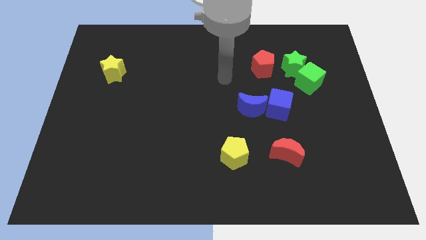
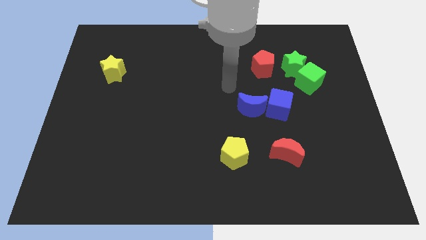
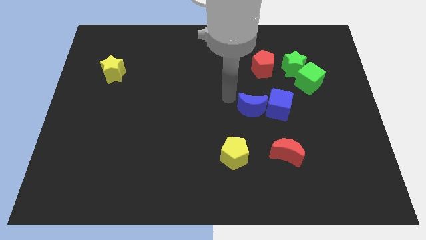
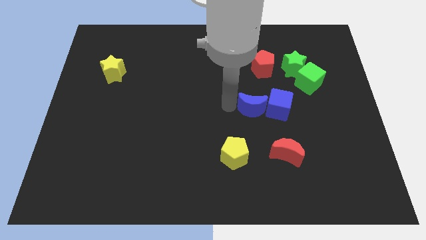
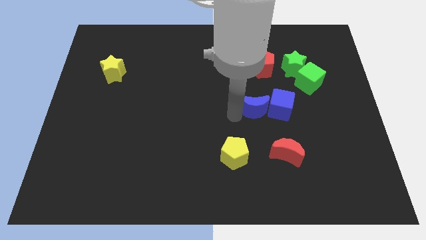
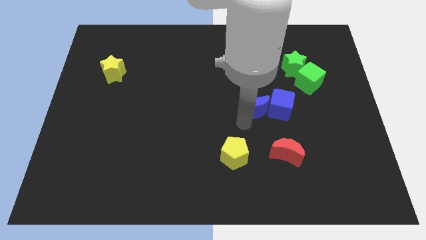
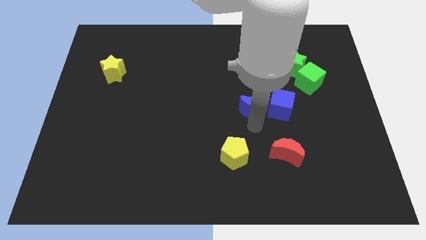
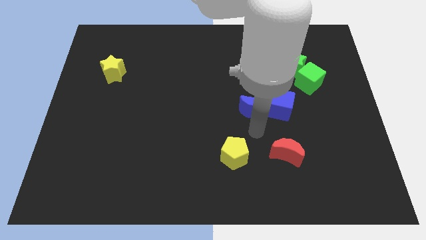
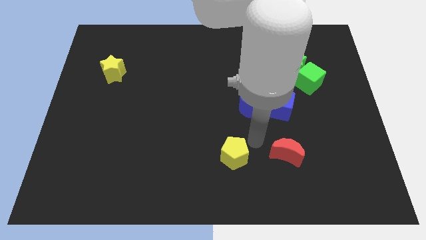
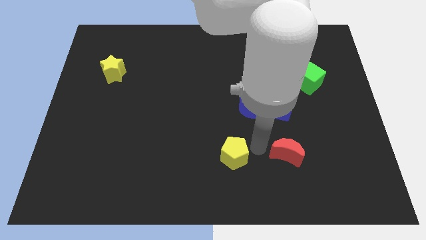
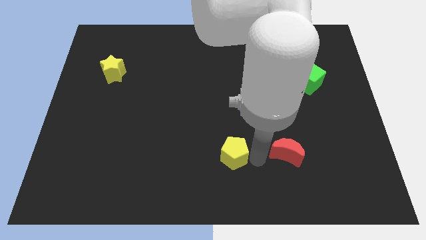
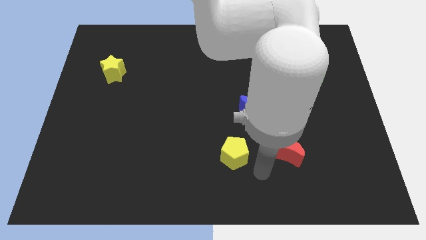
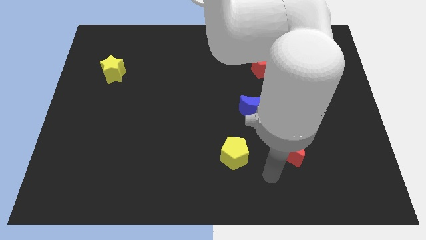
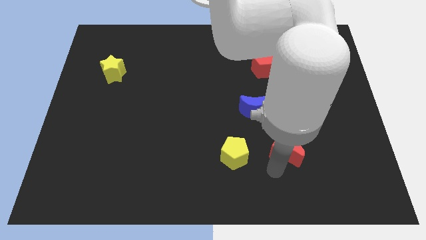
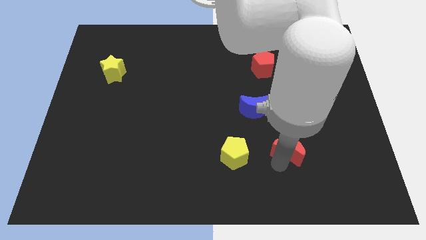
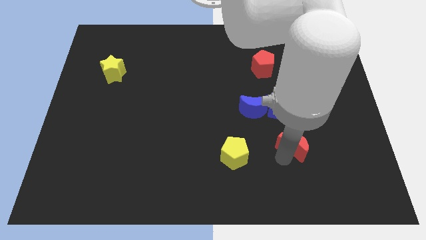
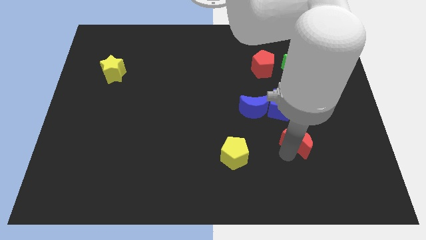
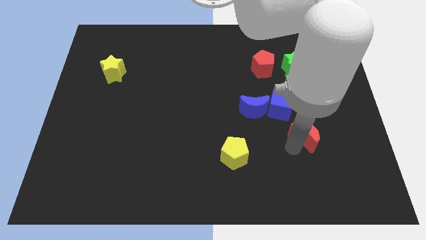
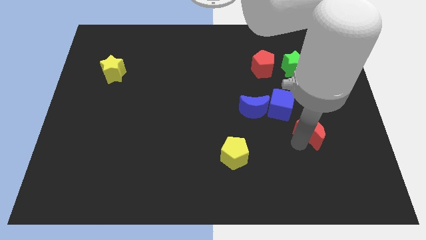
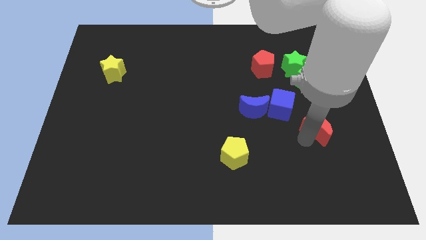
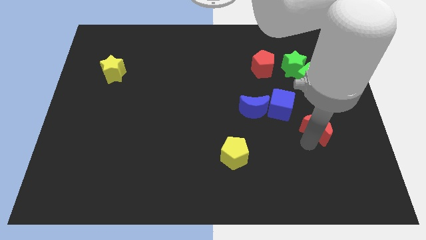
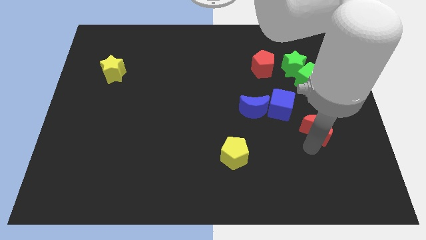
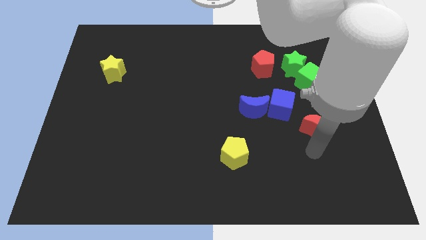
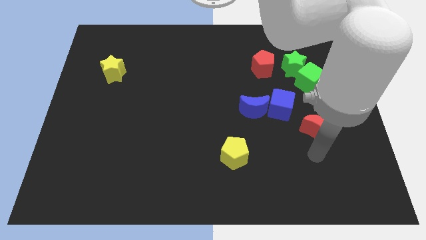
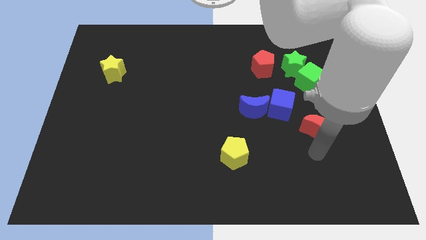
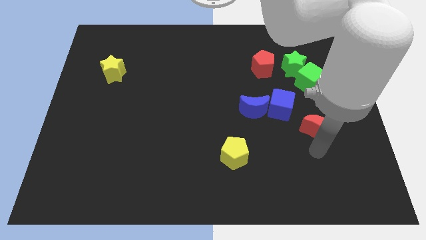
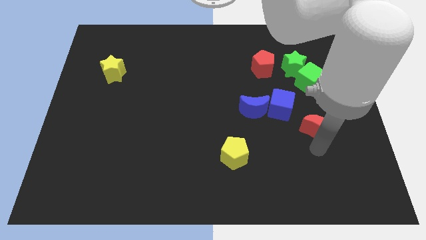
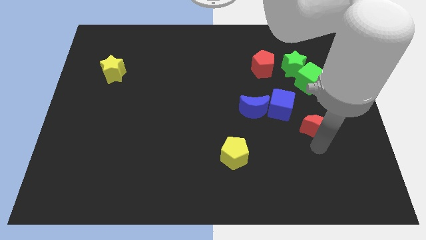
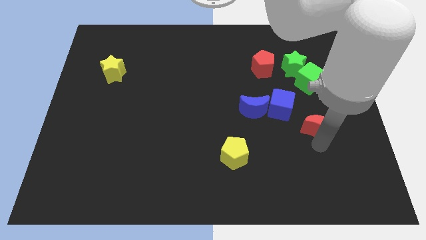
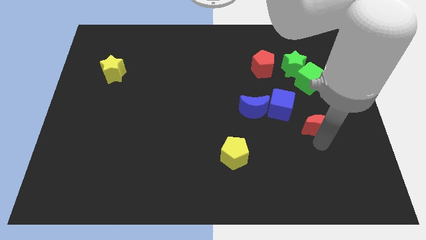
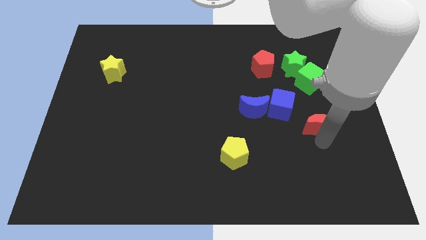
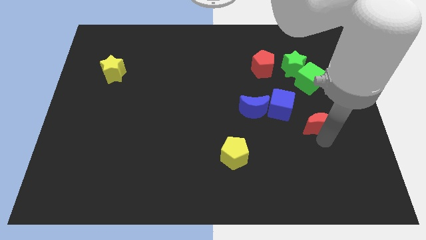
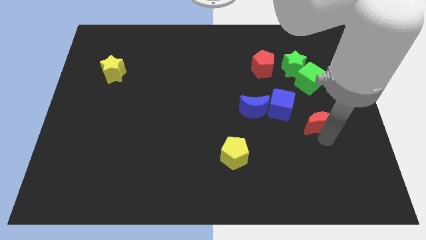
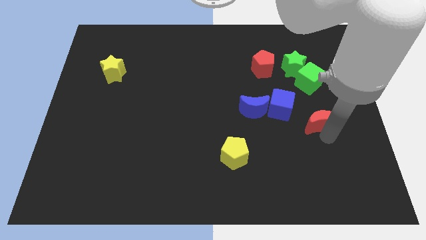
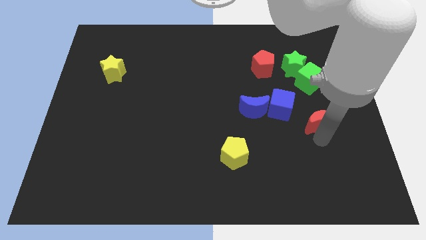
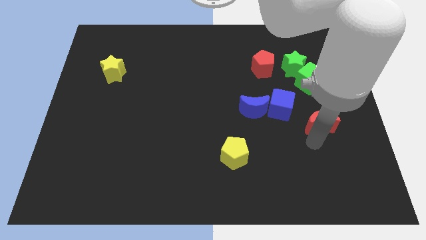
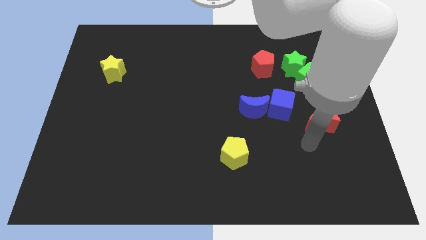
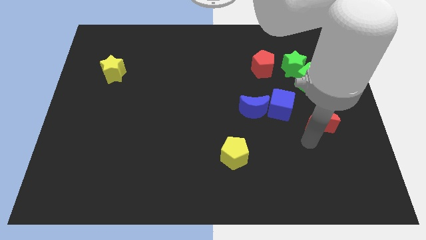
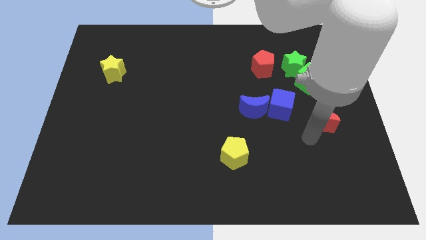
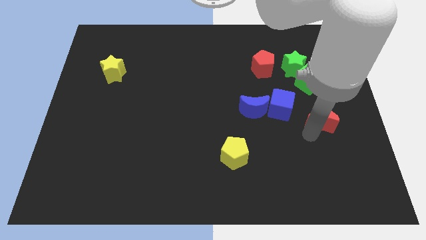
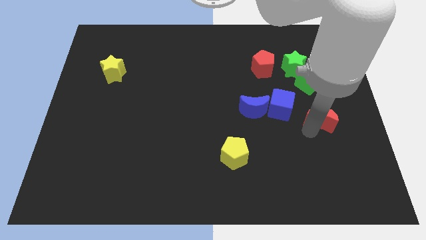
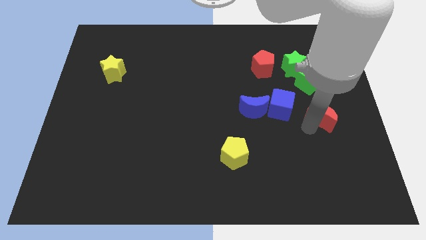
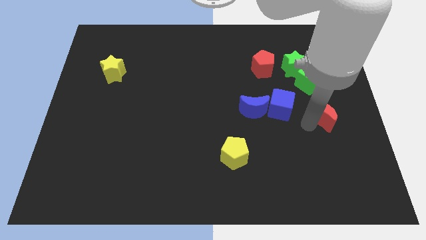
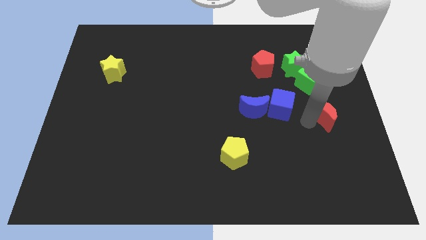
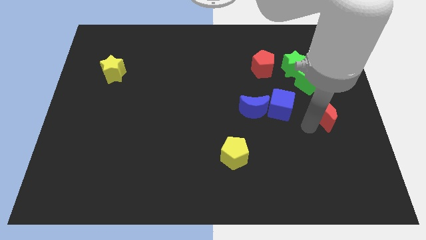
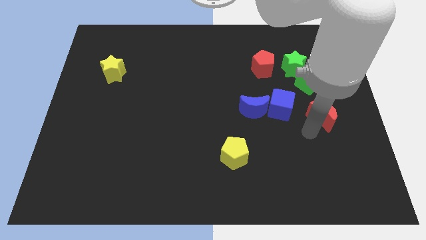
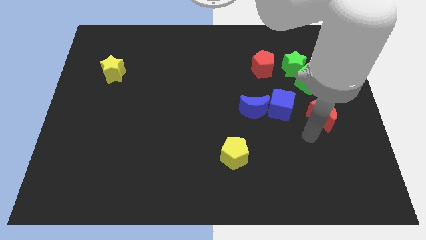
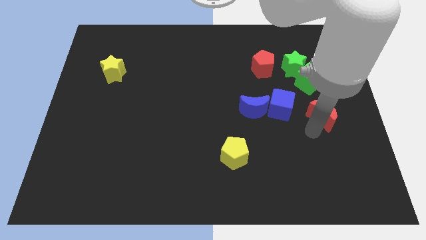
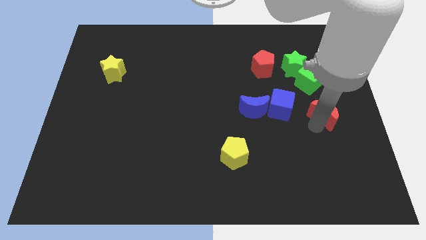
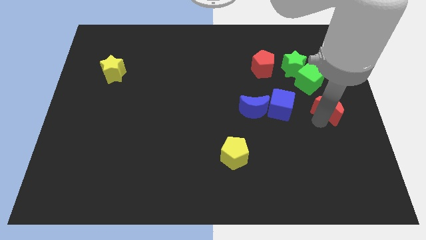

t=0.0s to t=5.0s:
put the red moon diagonally down and to the right of the green cube

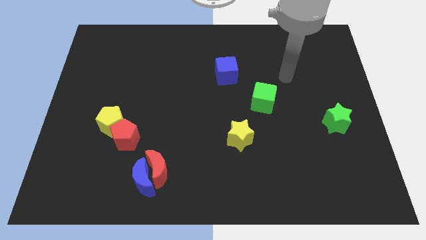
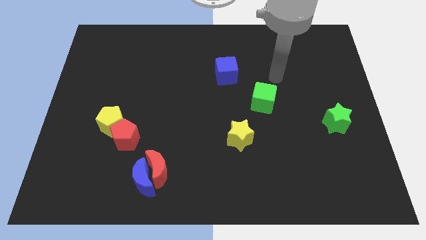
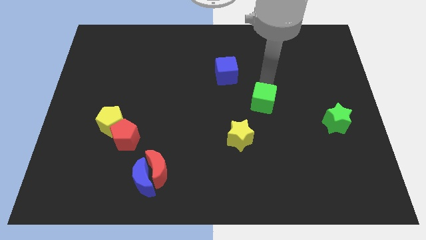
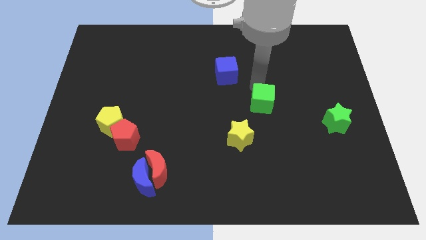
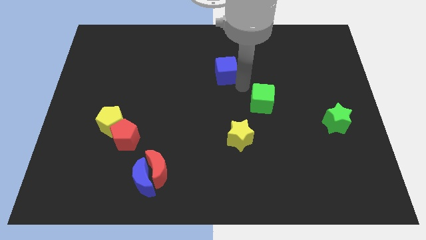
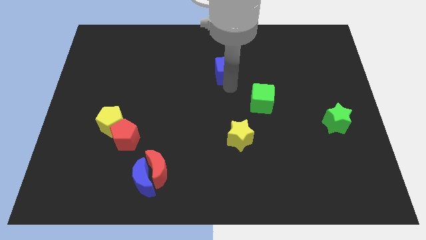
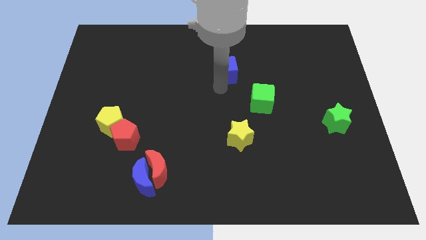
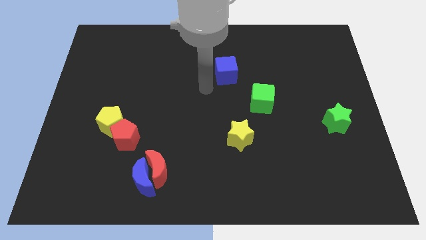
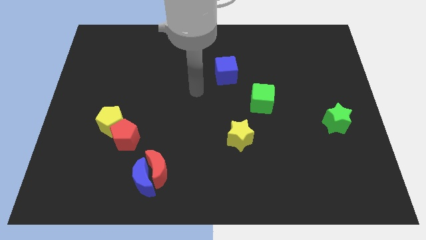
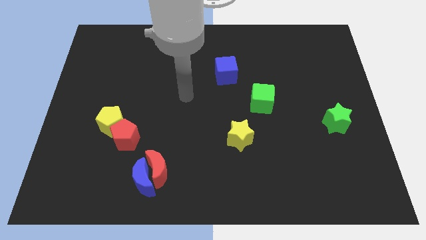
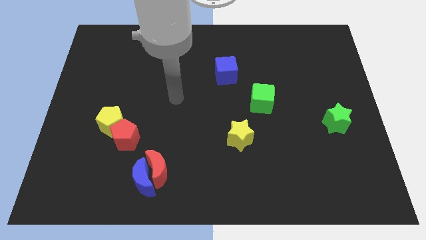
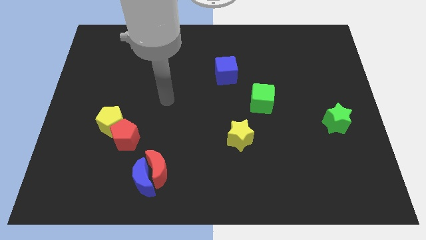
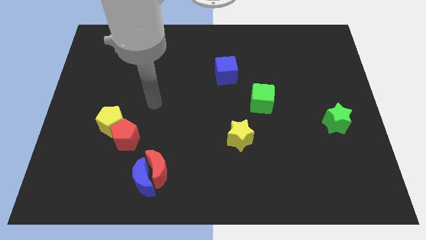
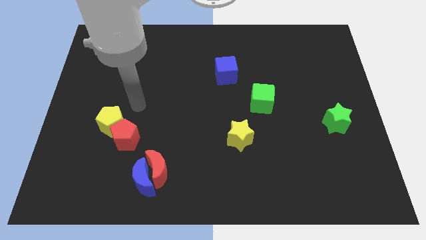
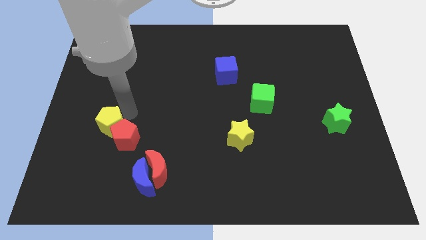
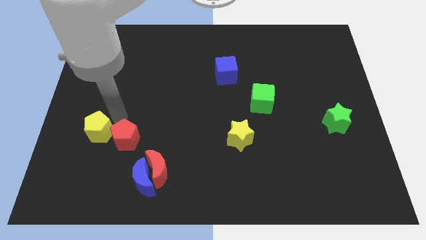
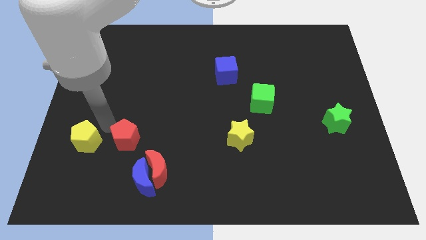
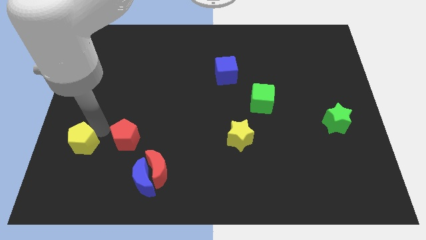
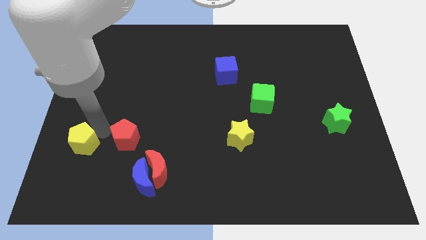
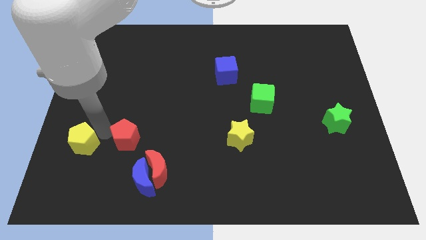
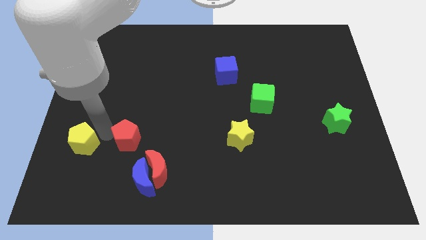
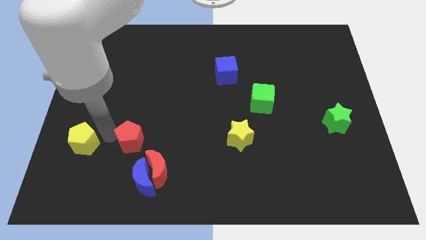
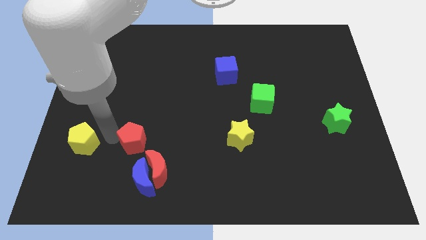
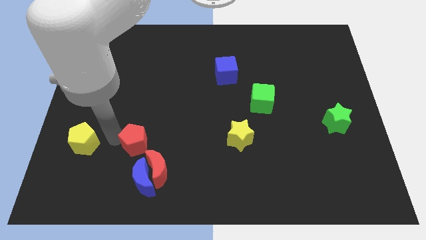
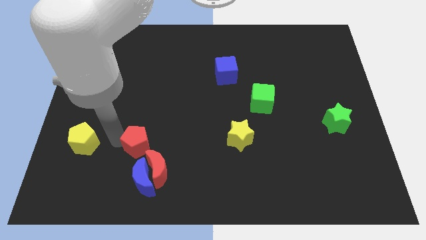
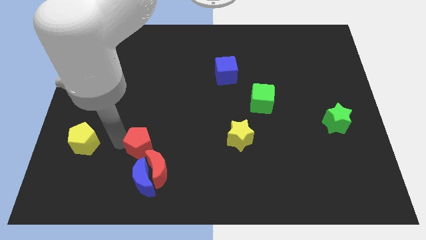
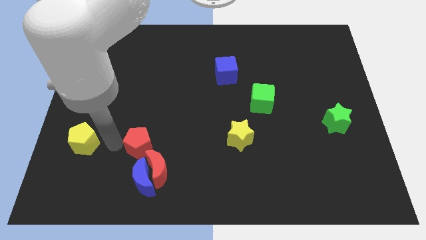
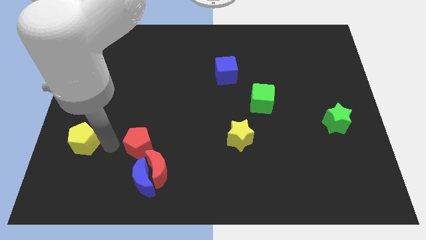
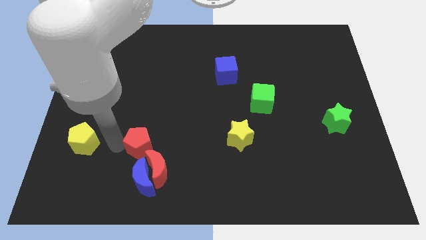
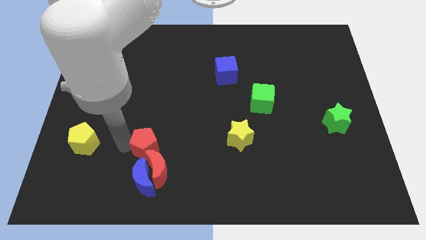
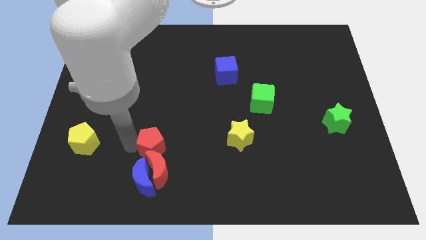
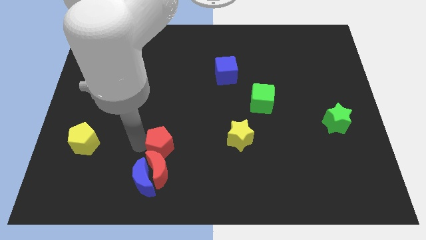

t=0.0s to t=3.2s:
move the red pentagon to the top right side of the red moon
